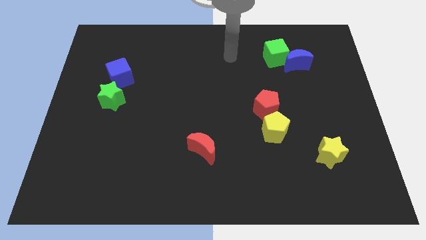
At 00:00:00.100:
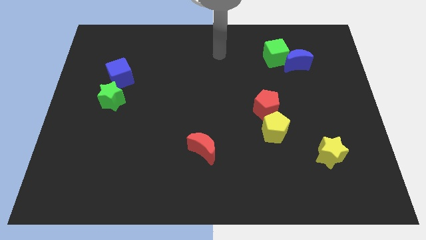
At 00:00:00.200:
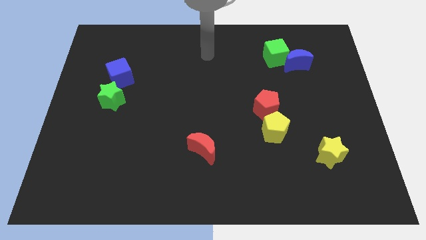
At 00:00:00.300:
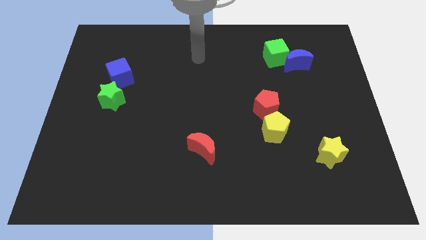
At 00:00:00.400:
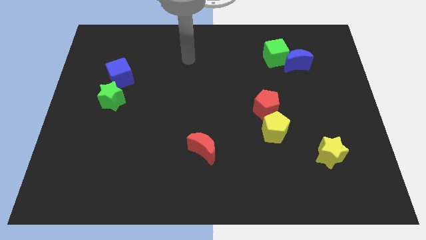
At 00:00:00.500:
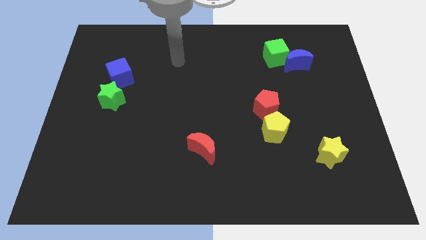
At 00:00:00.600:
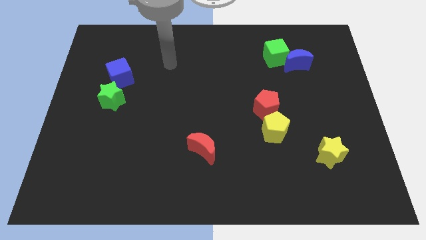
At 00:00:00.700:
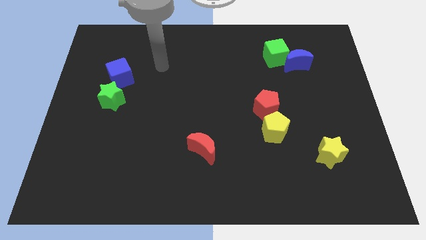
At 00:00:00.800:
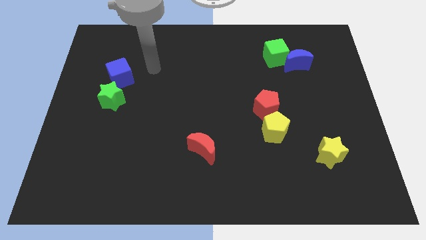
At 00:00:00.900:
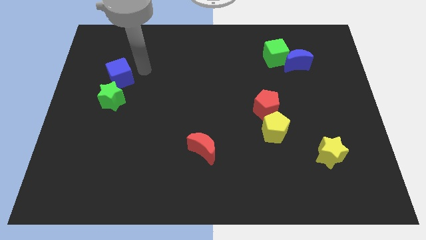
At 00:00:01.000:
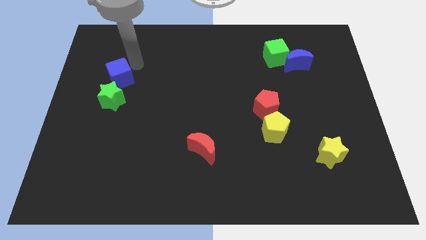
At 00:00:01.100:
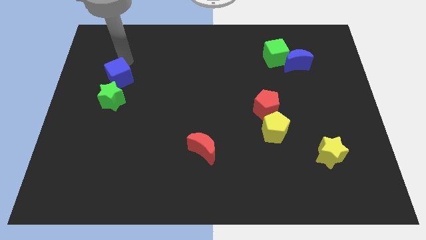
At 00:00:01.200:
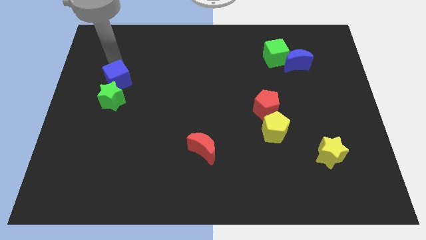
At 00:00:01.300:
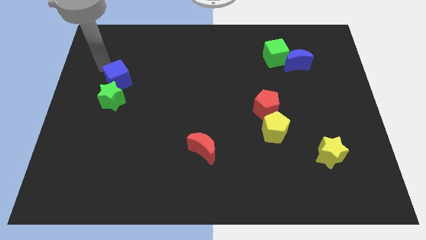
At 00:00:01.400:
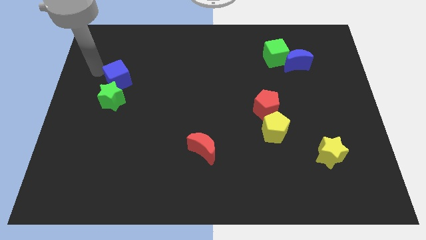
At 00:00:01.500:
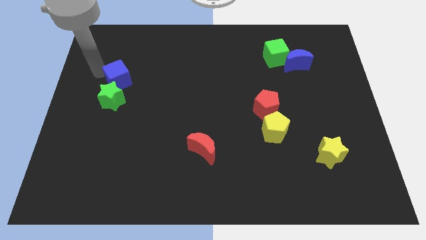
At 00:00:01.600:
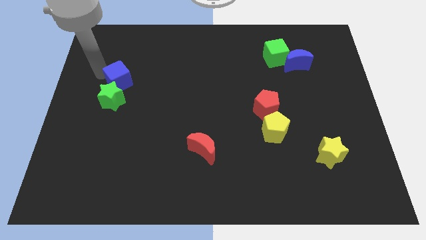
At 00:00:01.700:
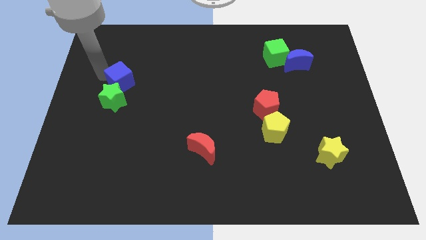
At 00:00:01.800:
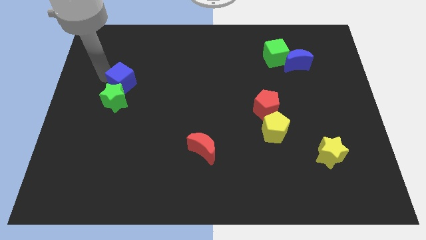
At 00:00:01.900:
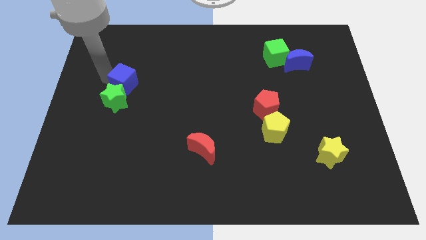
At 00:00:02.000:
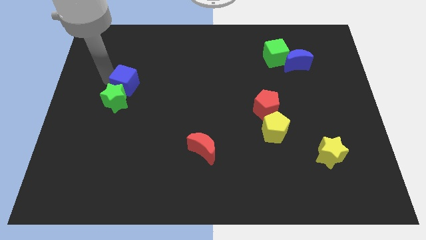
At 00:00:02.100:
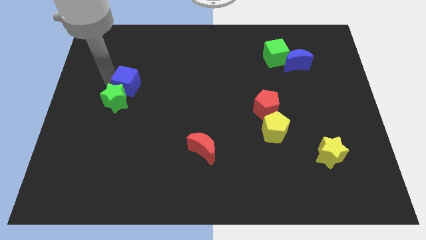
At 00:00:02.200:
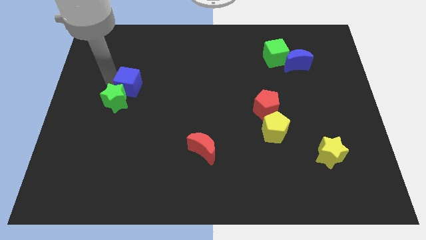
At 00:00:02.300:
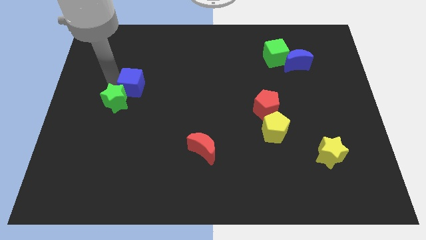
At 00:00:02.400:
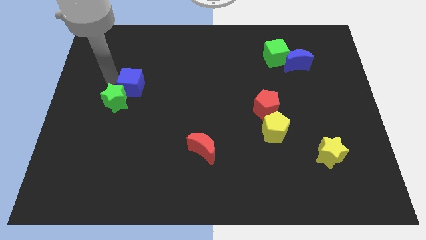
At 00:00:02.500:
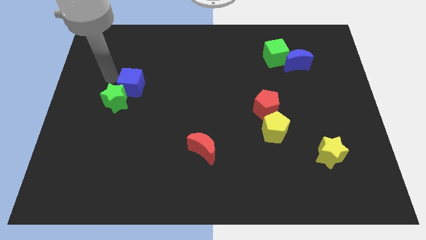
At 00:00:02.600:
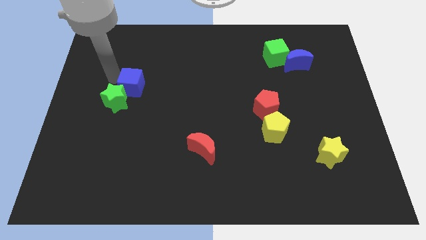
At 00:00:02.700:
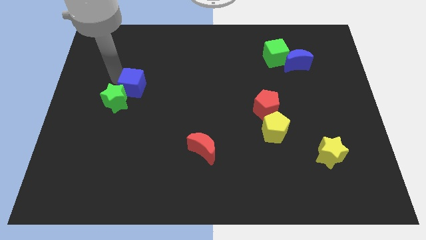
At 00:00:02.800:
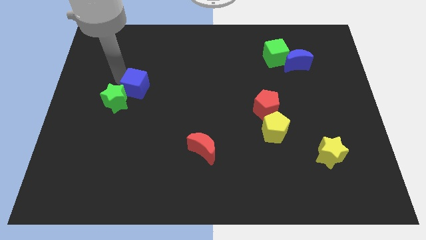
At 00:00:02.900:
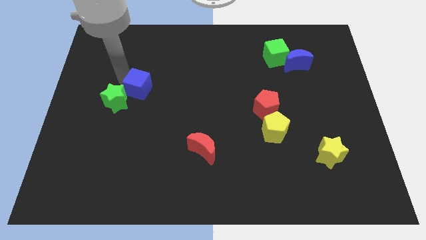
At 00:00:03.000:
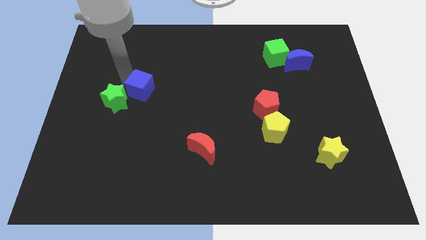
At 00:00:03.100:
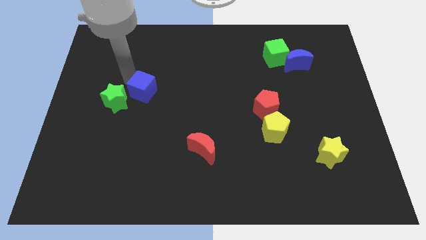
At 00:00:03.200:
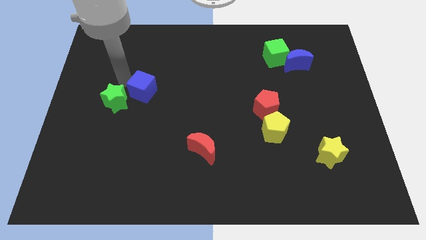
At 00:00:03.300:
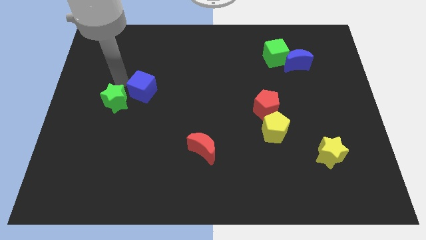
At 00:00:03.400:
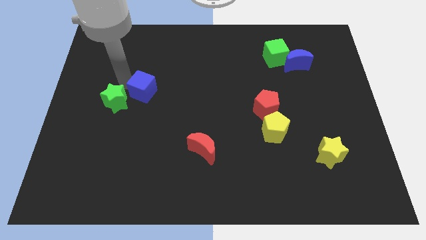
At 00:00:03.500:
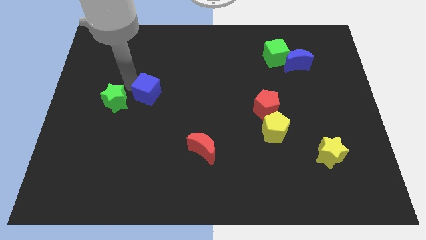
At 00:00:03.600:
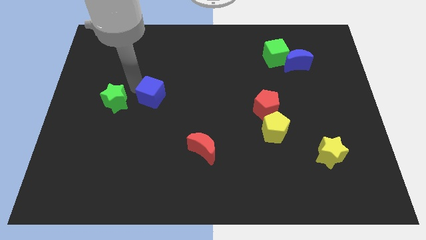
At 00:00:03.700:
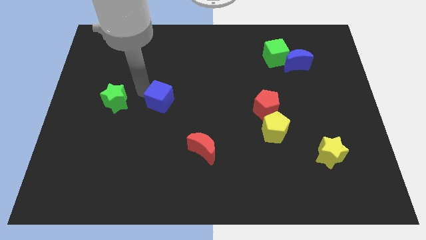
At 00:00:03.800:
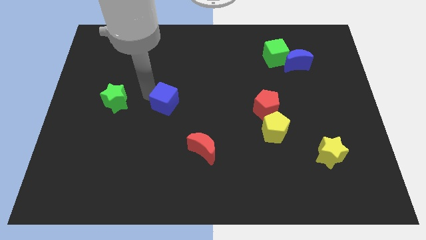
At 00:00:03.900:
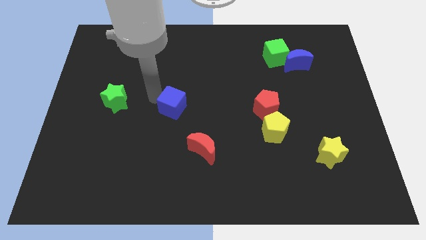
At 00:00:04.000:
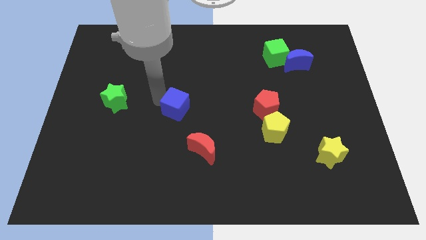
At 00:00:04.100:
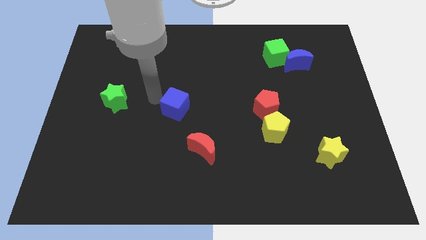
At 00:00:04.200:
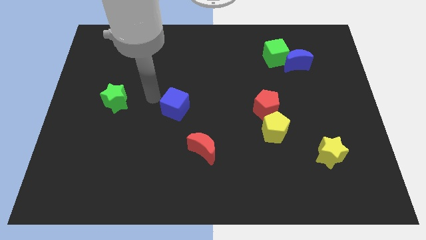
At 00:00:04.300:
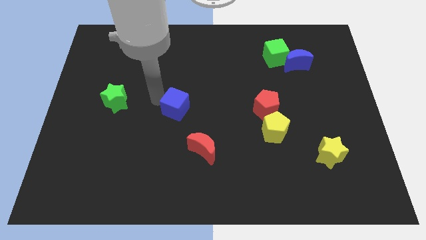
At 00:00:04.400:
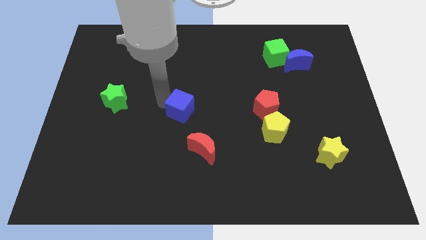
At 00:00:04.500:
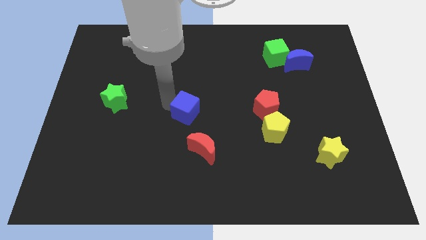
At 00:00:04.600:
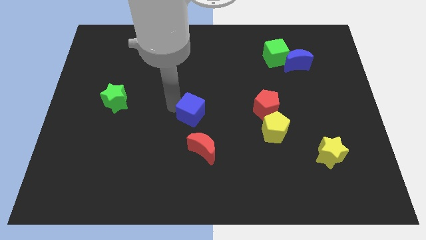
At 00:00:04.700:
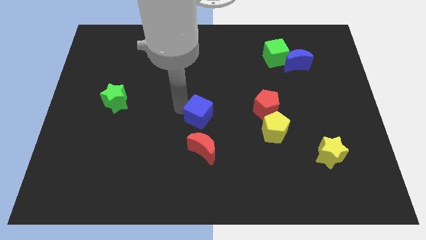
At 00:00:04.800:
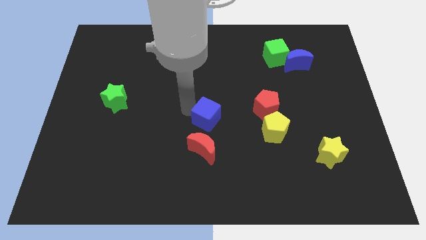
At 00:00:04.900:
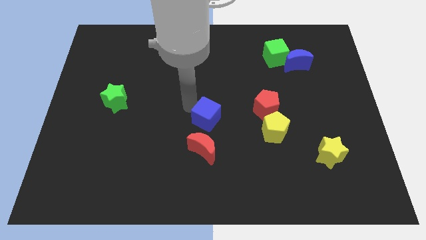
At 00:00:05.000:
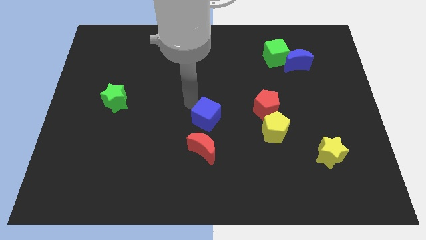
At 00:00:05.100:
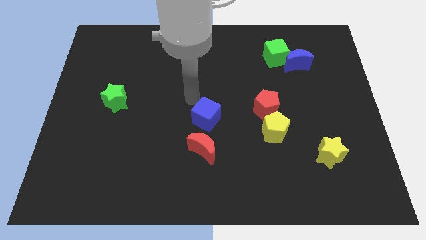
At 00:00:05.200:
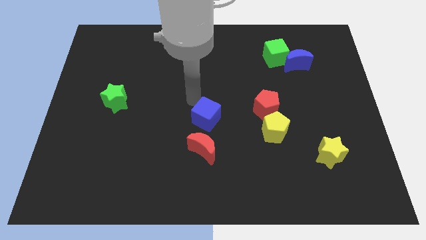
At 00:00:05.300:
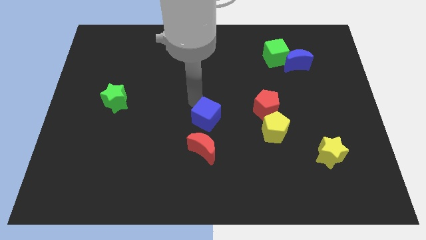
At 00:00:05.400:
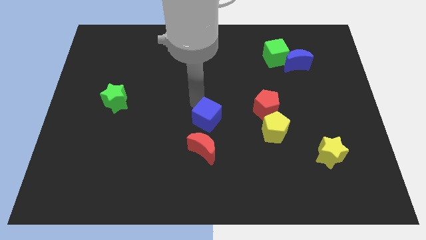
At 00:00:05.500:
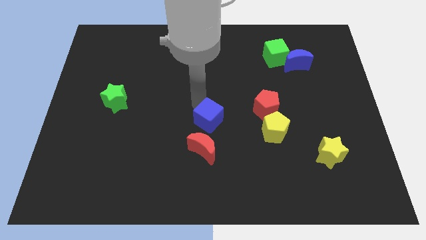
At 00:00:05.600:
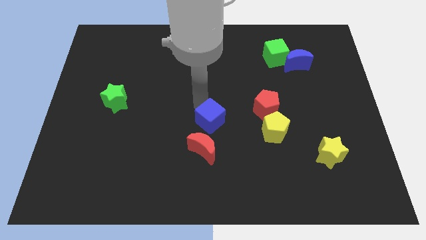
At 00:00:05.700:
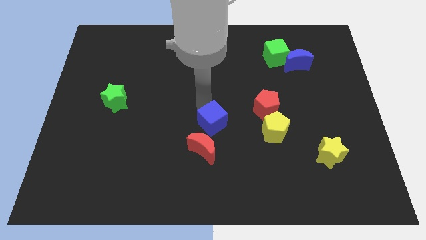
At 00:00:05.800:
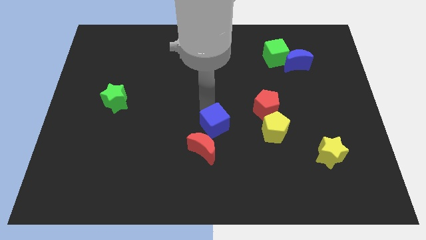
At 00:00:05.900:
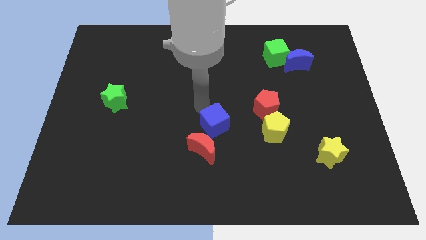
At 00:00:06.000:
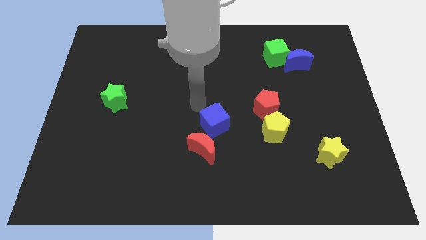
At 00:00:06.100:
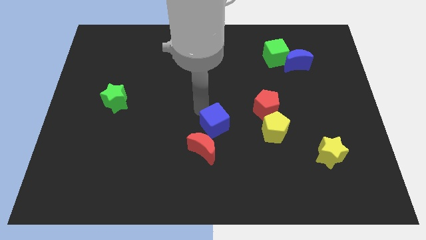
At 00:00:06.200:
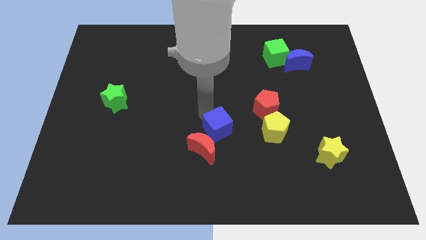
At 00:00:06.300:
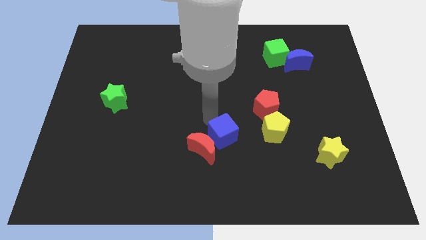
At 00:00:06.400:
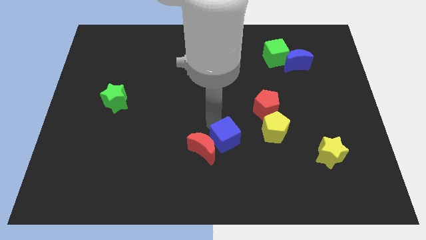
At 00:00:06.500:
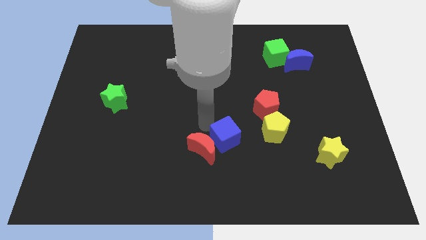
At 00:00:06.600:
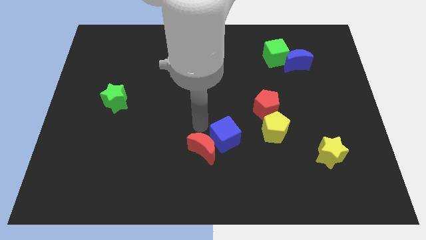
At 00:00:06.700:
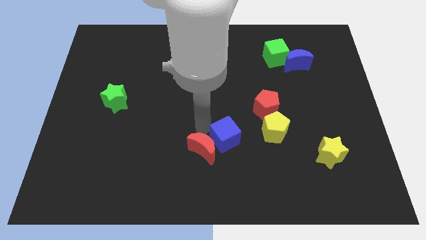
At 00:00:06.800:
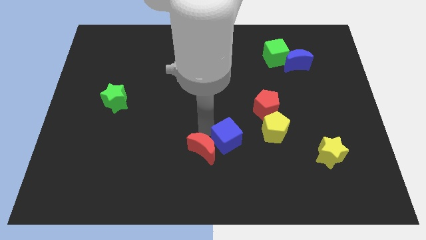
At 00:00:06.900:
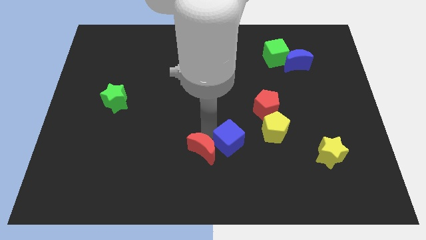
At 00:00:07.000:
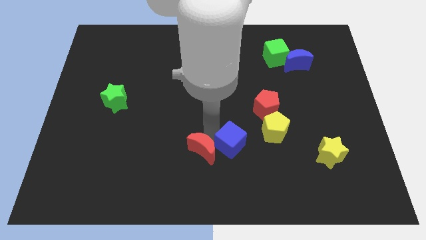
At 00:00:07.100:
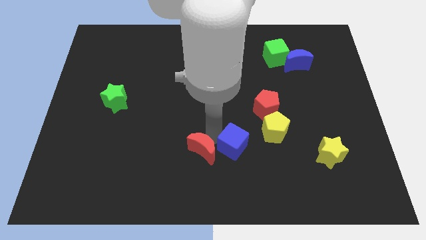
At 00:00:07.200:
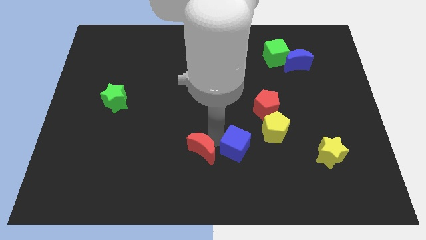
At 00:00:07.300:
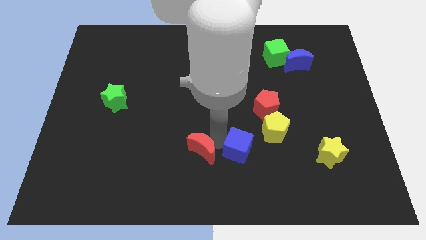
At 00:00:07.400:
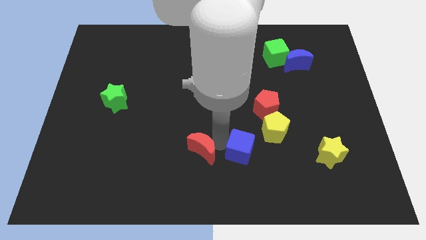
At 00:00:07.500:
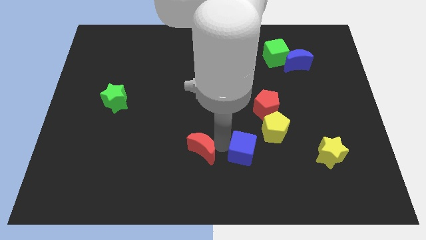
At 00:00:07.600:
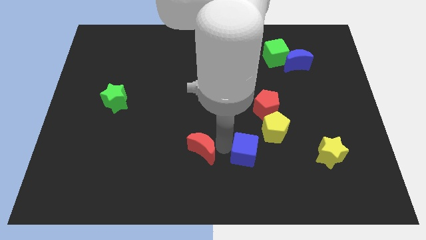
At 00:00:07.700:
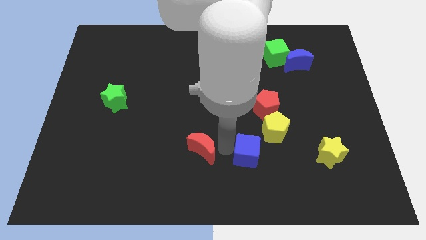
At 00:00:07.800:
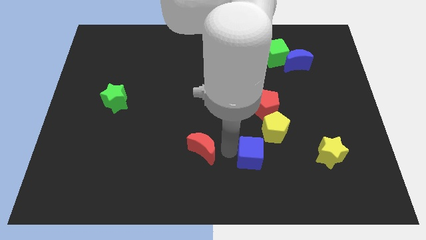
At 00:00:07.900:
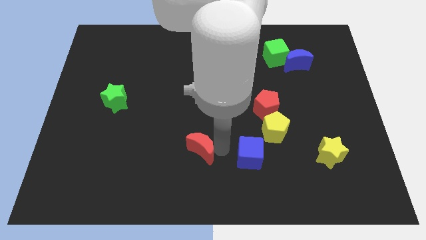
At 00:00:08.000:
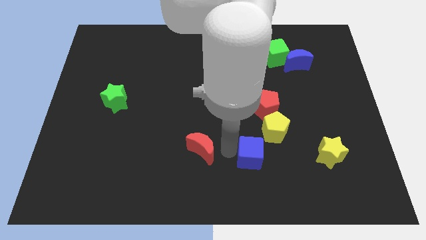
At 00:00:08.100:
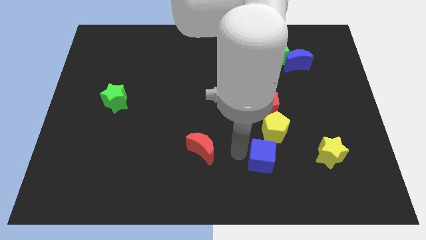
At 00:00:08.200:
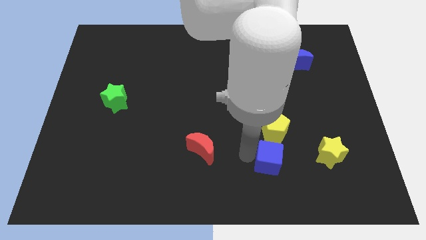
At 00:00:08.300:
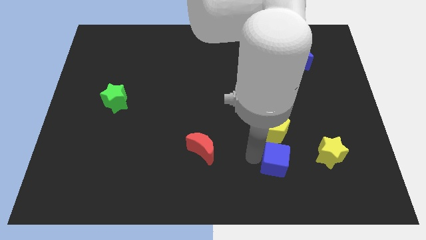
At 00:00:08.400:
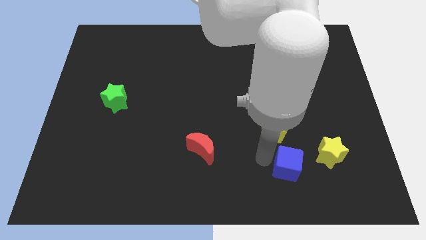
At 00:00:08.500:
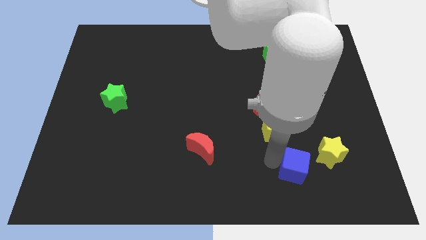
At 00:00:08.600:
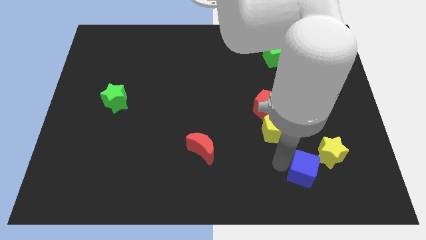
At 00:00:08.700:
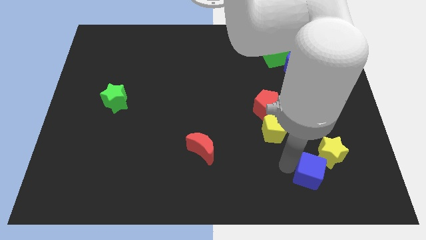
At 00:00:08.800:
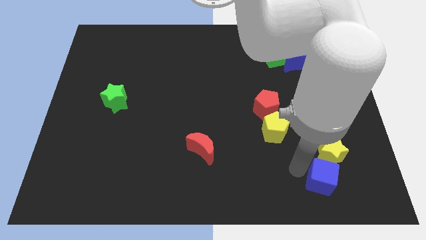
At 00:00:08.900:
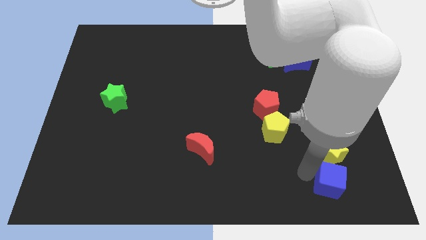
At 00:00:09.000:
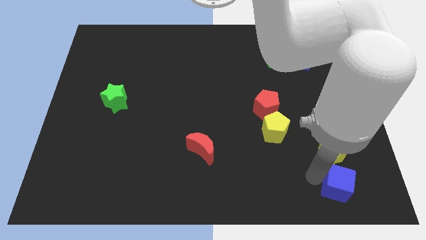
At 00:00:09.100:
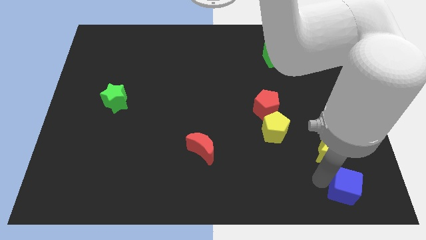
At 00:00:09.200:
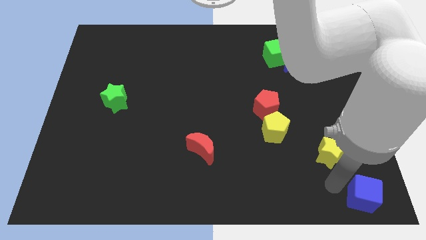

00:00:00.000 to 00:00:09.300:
push the blue cube to the bottom right corner
